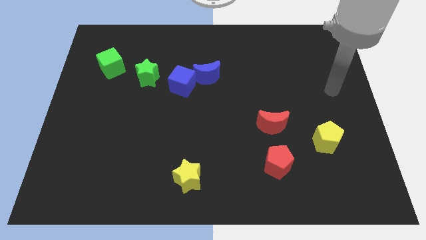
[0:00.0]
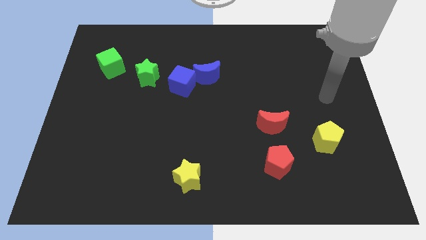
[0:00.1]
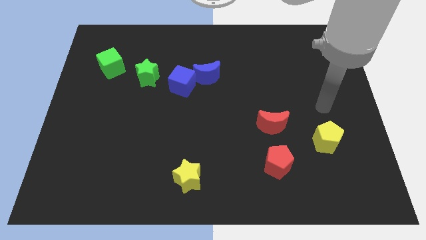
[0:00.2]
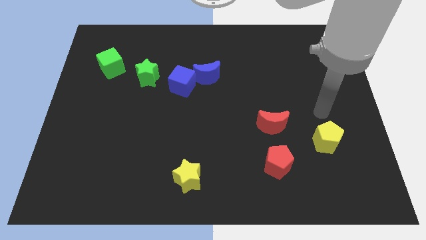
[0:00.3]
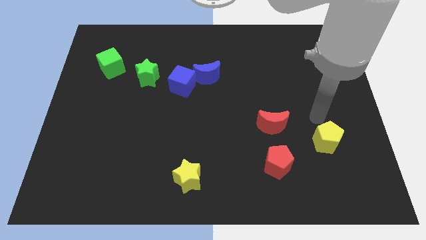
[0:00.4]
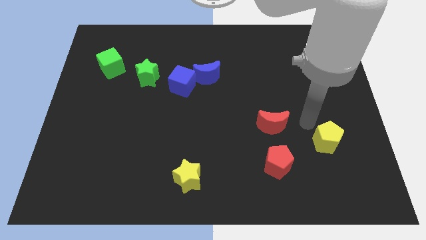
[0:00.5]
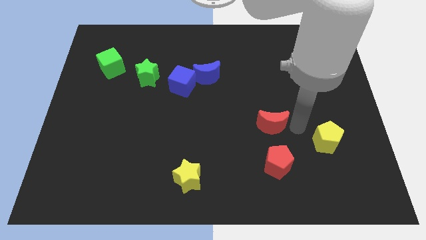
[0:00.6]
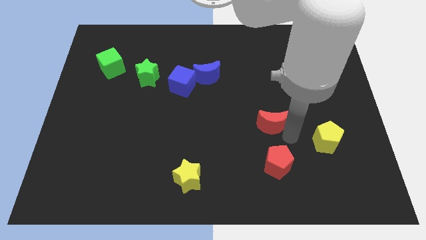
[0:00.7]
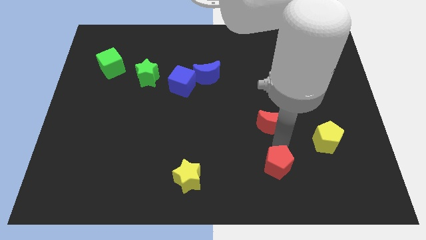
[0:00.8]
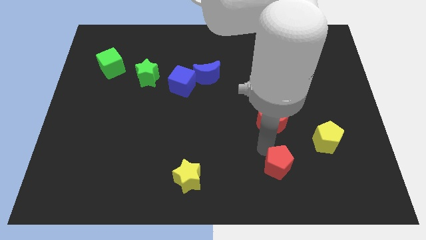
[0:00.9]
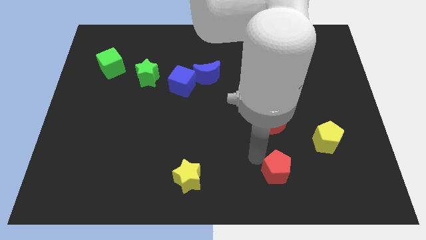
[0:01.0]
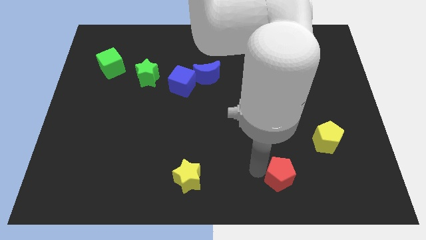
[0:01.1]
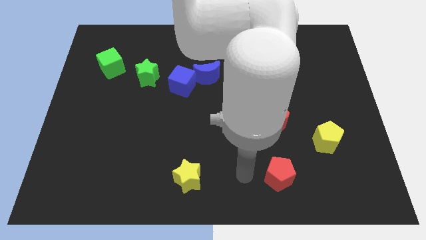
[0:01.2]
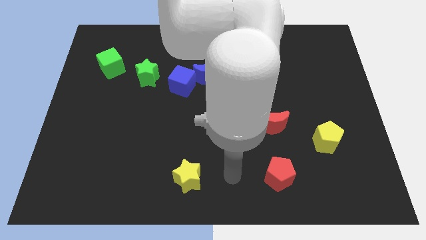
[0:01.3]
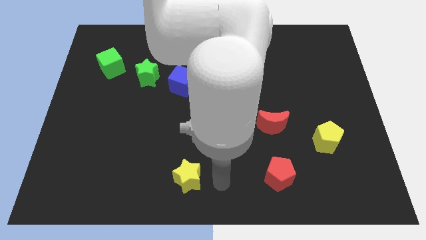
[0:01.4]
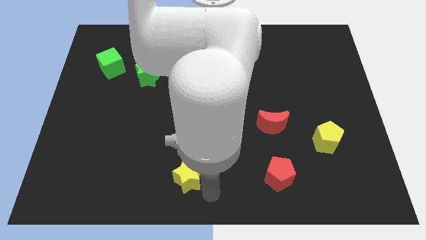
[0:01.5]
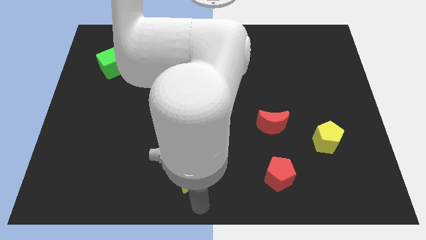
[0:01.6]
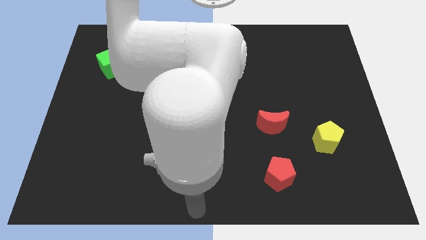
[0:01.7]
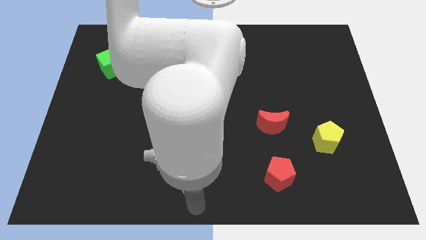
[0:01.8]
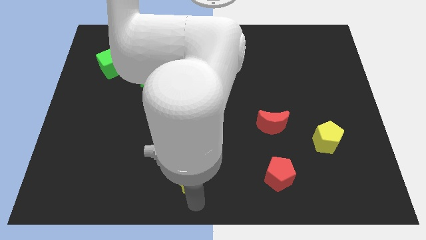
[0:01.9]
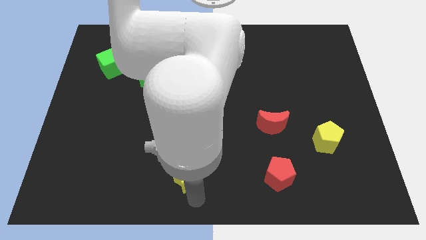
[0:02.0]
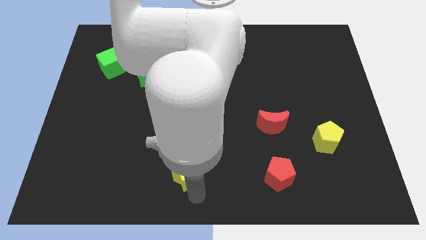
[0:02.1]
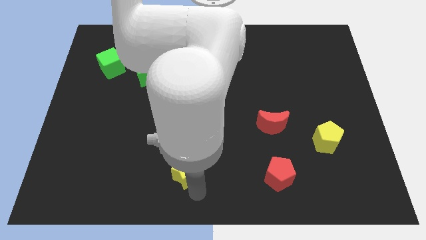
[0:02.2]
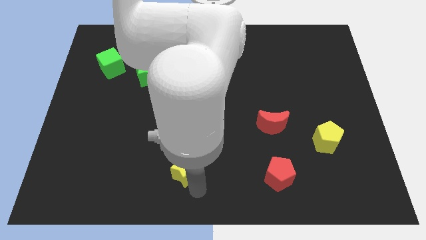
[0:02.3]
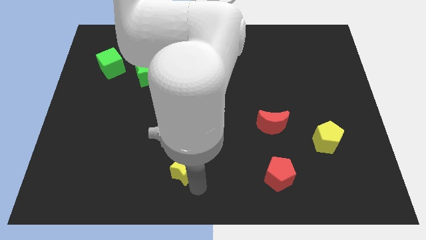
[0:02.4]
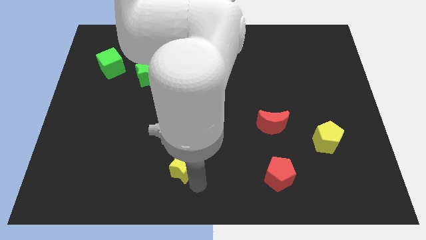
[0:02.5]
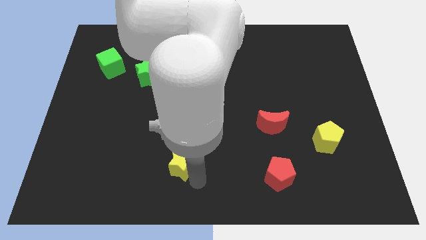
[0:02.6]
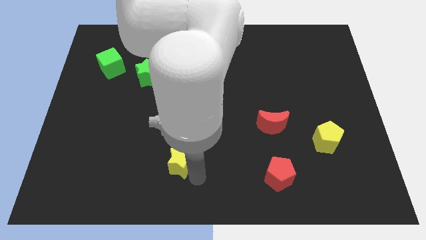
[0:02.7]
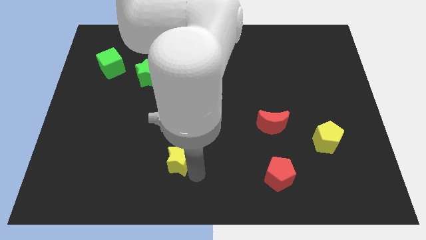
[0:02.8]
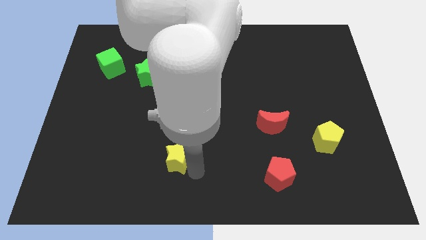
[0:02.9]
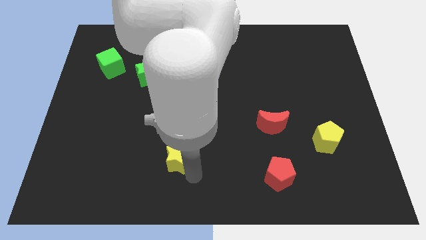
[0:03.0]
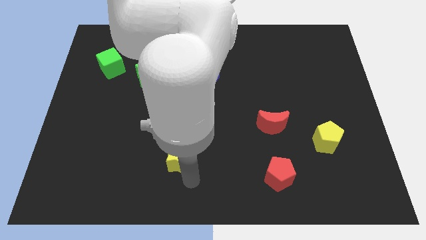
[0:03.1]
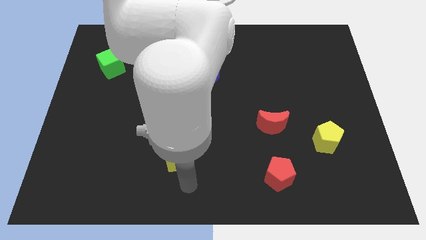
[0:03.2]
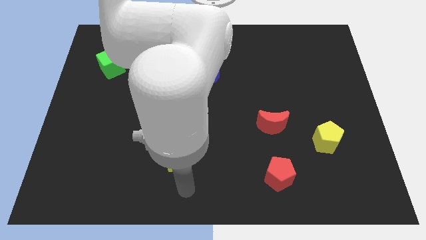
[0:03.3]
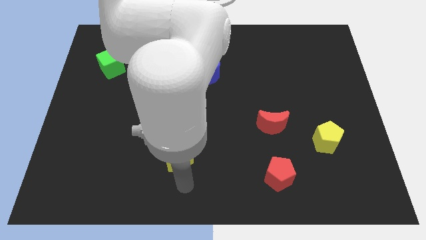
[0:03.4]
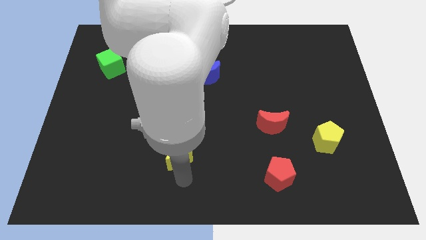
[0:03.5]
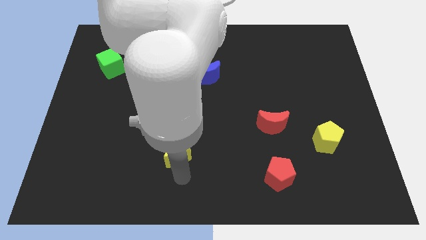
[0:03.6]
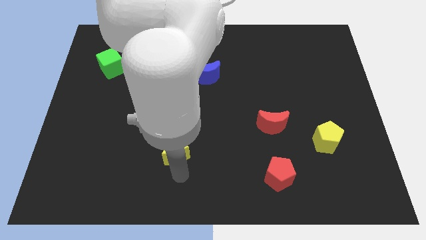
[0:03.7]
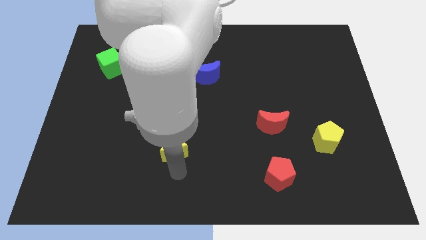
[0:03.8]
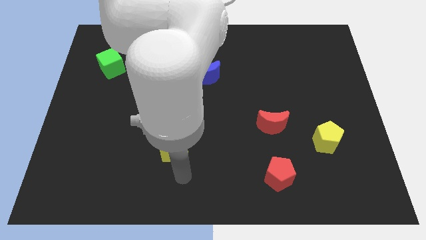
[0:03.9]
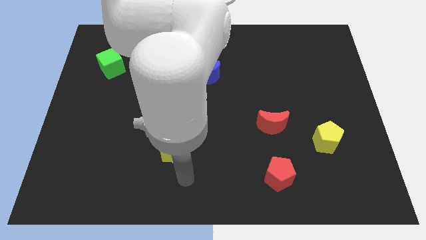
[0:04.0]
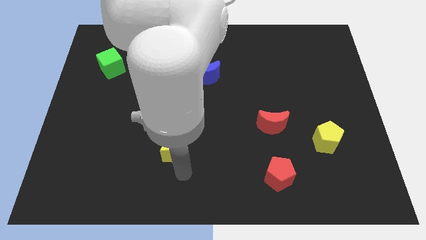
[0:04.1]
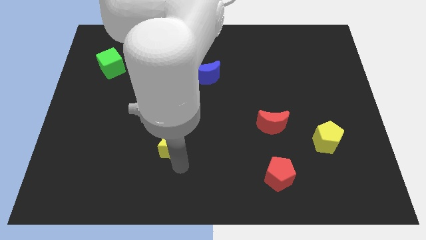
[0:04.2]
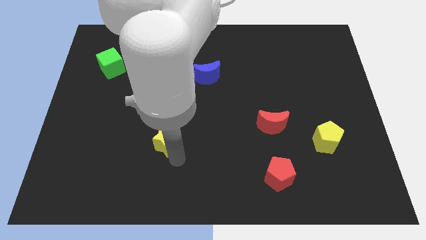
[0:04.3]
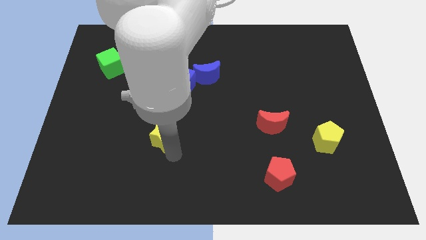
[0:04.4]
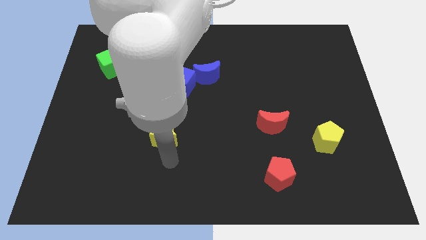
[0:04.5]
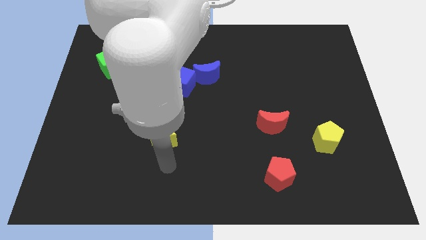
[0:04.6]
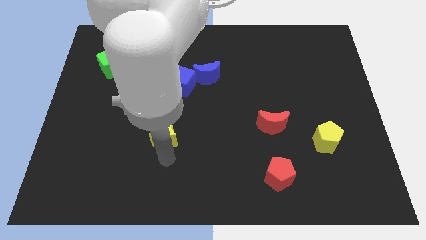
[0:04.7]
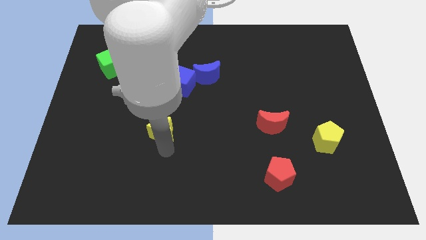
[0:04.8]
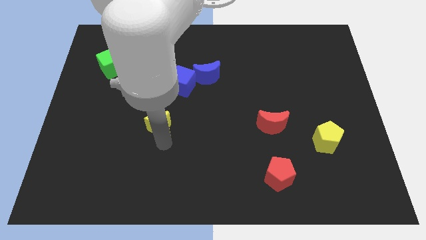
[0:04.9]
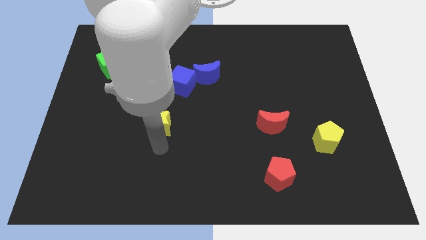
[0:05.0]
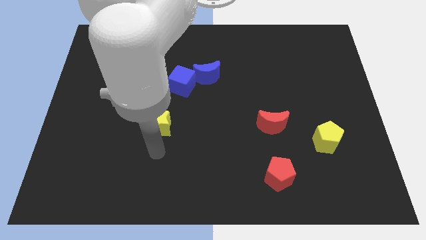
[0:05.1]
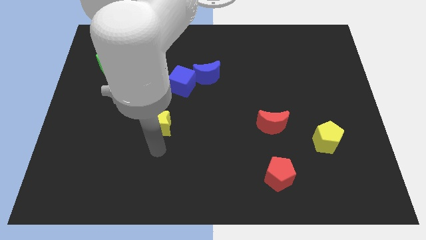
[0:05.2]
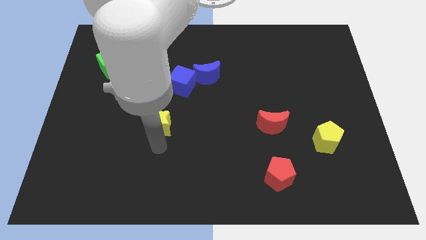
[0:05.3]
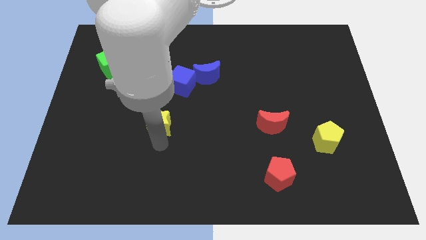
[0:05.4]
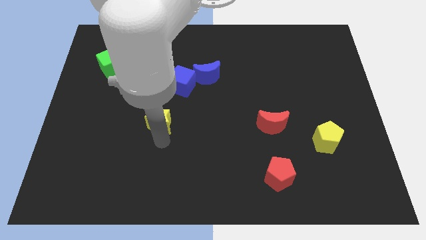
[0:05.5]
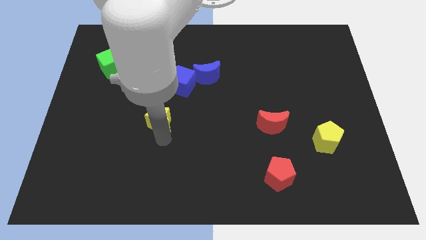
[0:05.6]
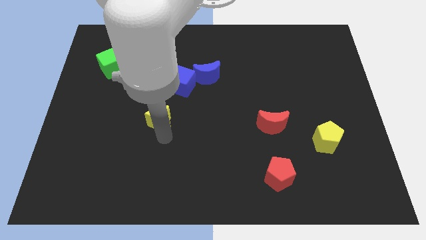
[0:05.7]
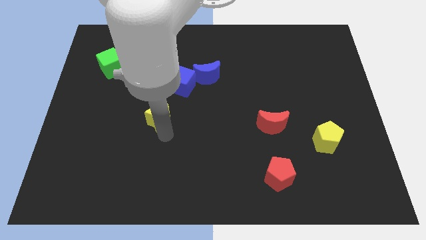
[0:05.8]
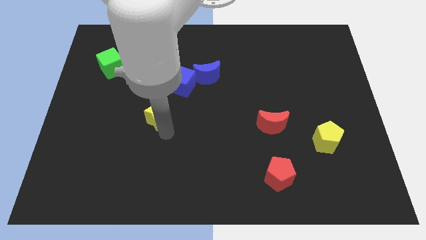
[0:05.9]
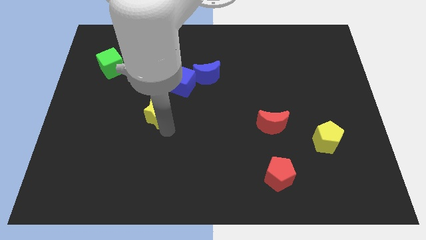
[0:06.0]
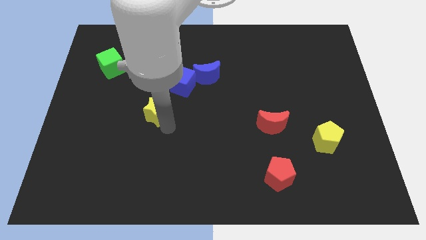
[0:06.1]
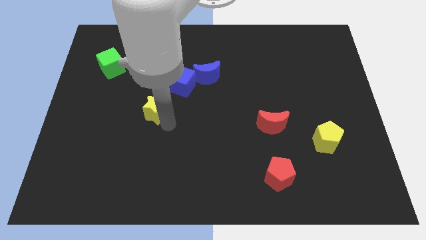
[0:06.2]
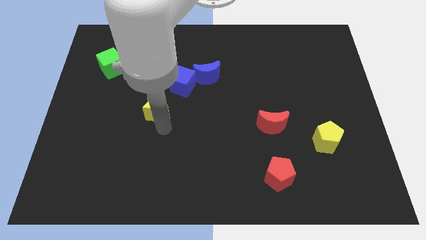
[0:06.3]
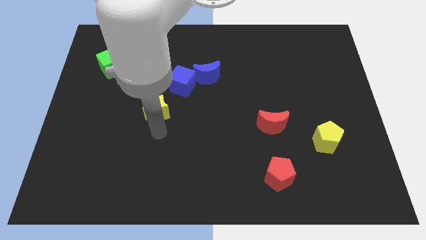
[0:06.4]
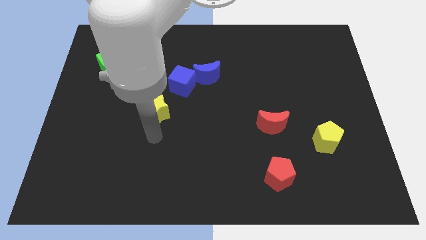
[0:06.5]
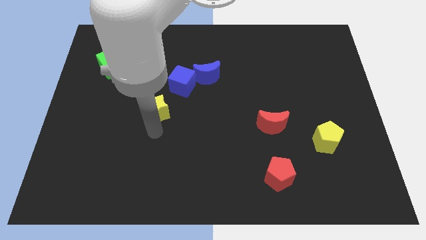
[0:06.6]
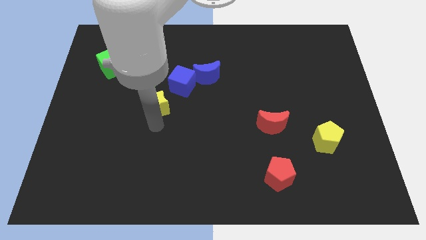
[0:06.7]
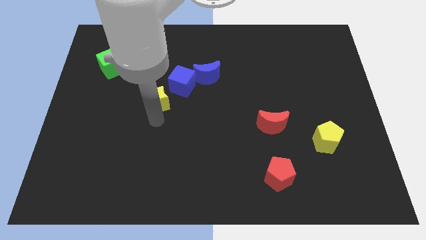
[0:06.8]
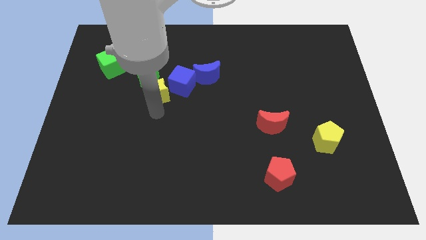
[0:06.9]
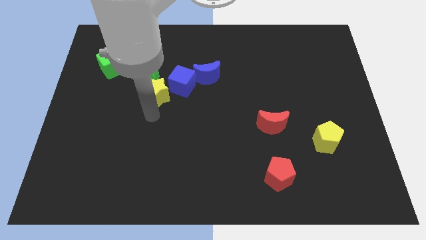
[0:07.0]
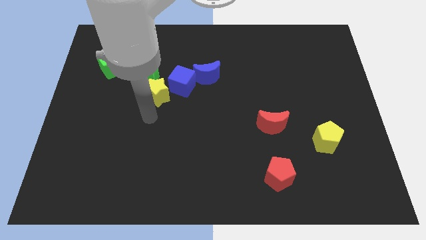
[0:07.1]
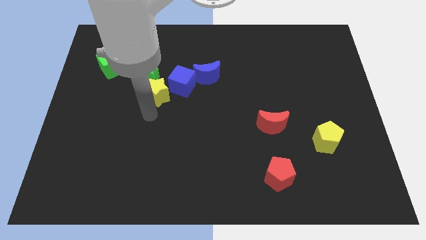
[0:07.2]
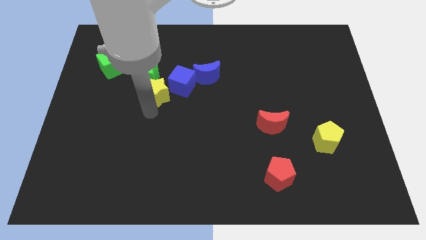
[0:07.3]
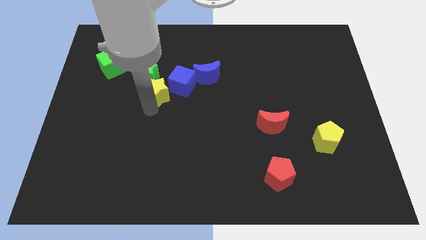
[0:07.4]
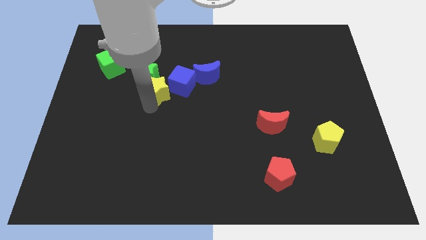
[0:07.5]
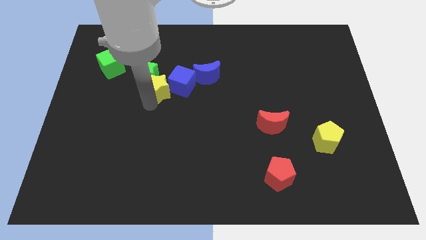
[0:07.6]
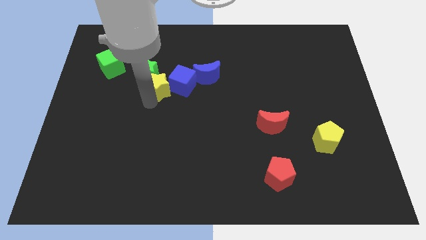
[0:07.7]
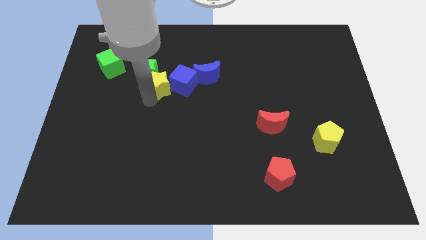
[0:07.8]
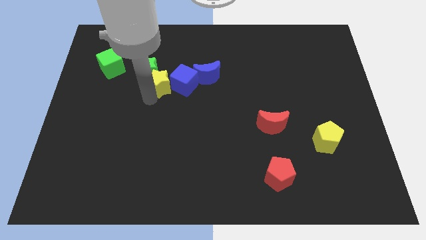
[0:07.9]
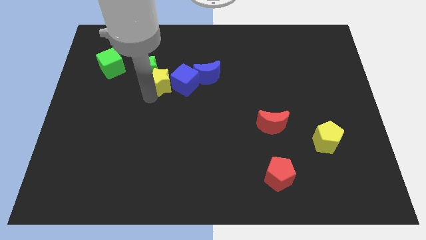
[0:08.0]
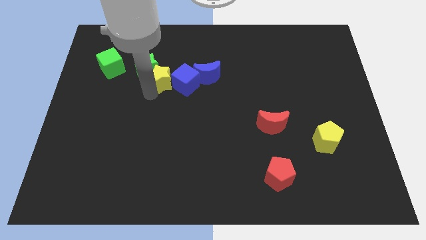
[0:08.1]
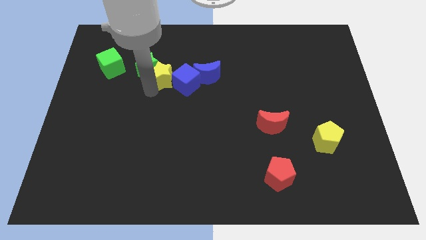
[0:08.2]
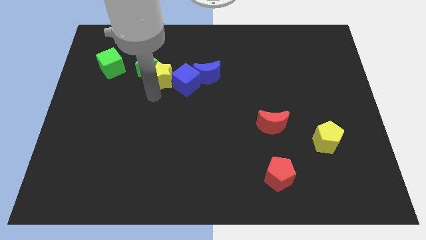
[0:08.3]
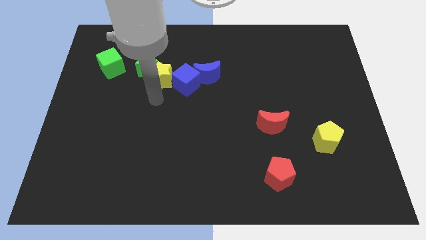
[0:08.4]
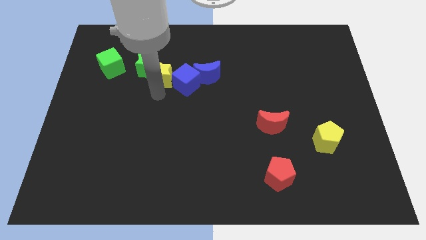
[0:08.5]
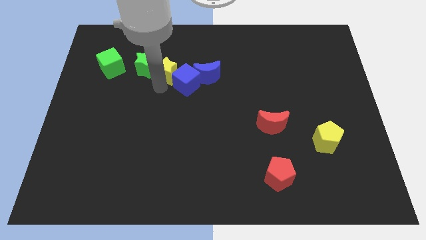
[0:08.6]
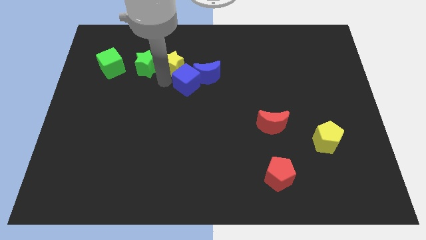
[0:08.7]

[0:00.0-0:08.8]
push the yellow star diagonally up and to the right of the green star
